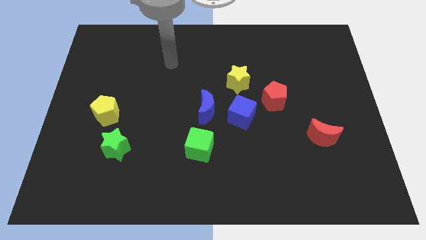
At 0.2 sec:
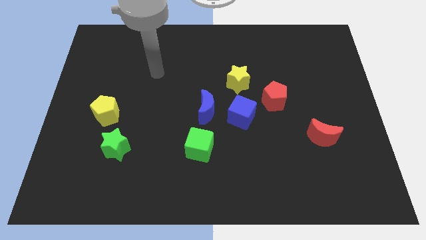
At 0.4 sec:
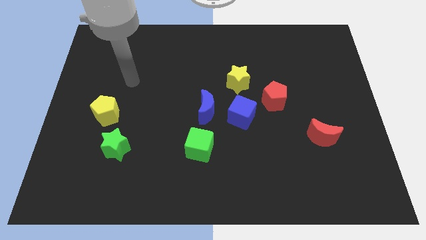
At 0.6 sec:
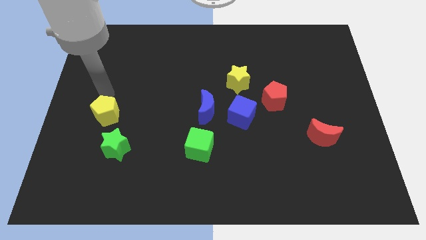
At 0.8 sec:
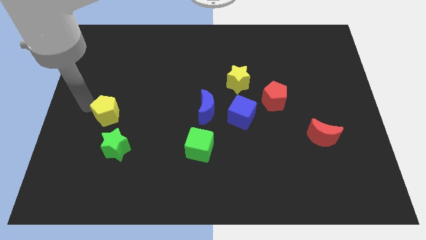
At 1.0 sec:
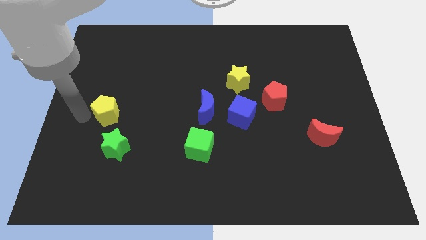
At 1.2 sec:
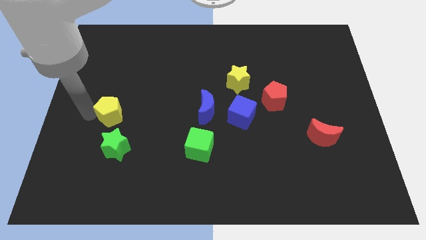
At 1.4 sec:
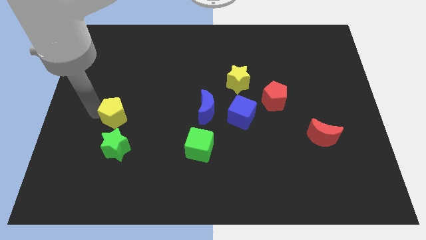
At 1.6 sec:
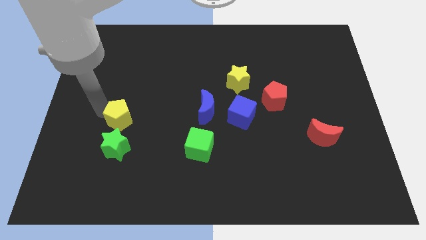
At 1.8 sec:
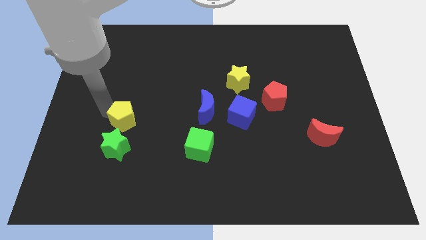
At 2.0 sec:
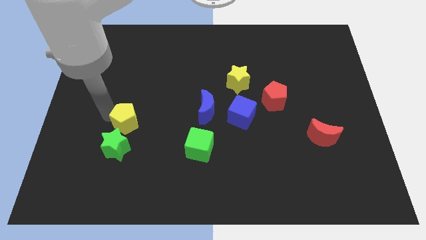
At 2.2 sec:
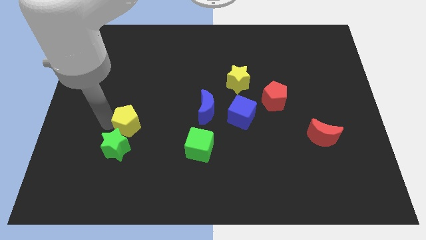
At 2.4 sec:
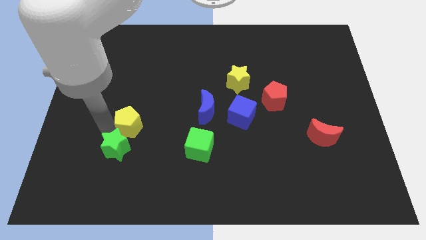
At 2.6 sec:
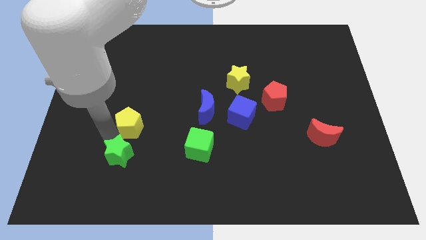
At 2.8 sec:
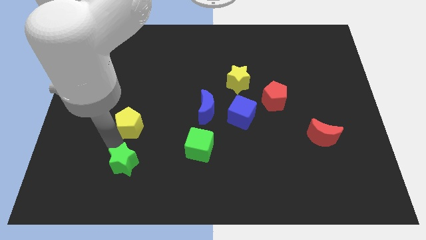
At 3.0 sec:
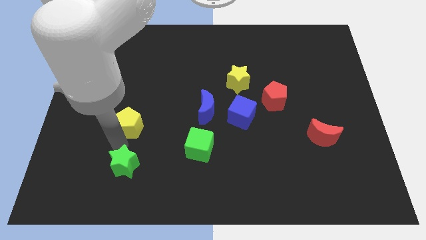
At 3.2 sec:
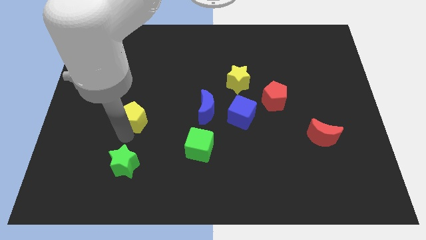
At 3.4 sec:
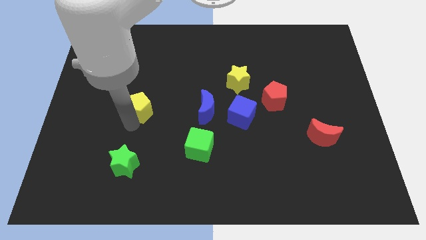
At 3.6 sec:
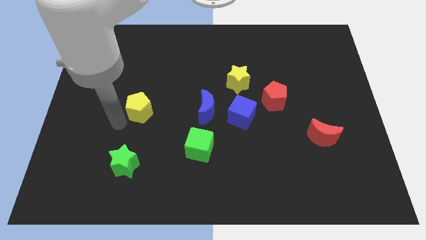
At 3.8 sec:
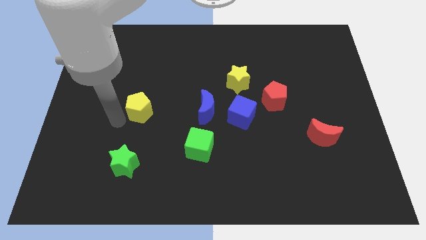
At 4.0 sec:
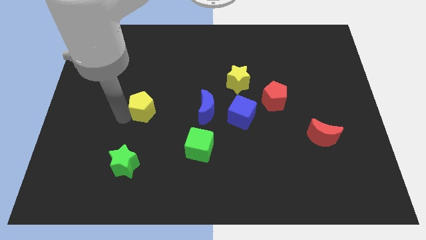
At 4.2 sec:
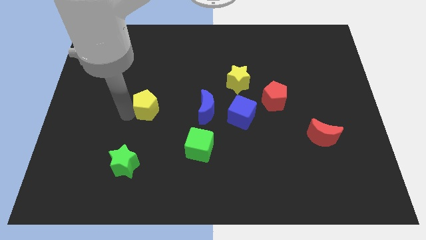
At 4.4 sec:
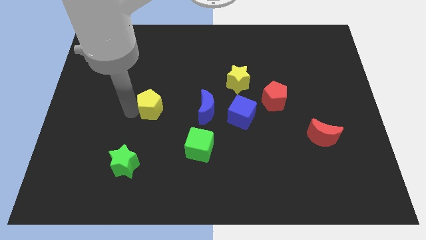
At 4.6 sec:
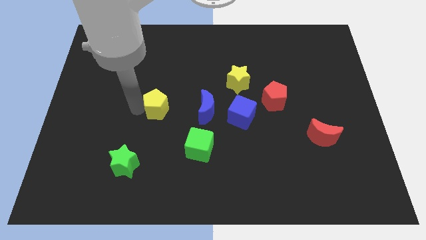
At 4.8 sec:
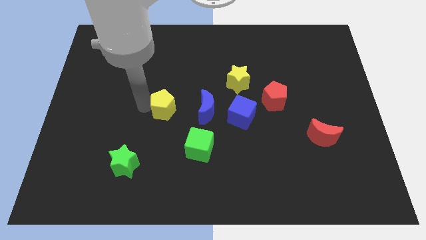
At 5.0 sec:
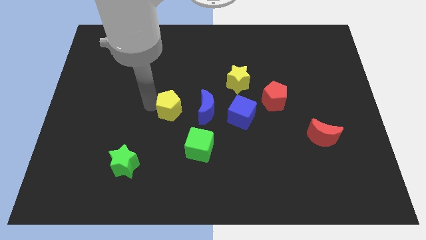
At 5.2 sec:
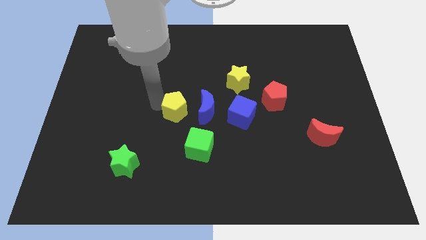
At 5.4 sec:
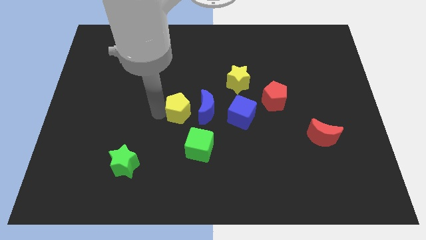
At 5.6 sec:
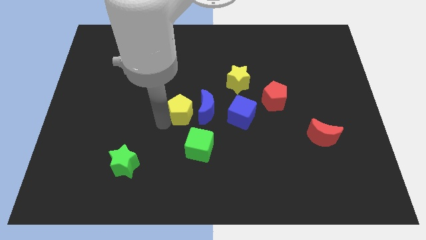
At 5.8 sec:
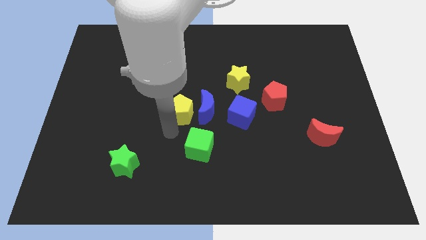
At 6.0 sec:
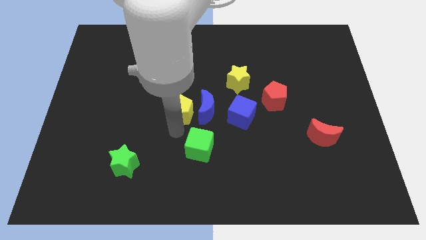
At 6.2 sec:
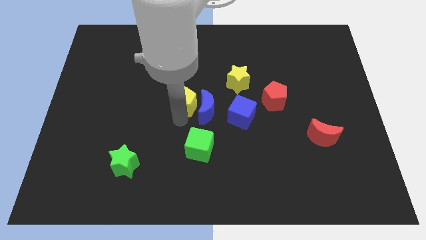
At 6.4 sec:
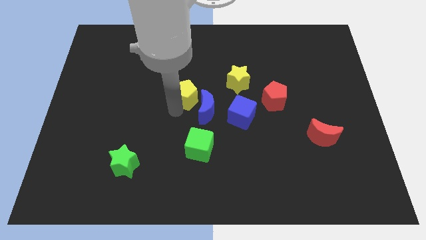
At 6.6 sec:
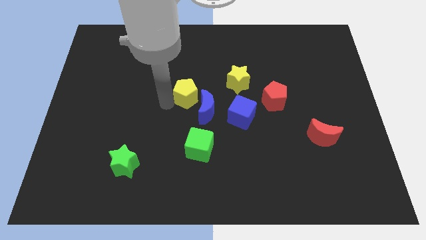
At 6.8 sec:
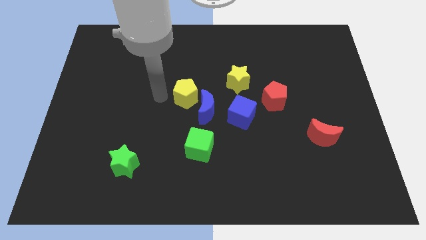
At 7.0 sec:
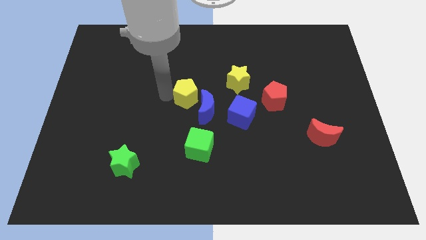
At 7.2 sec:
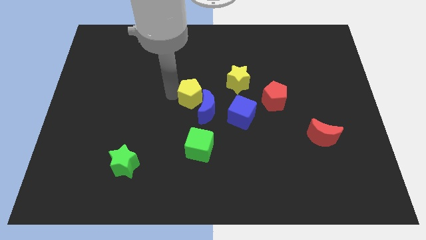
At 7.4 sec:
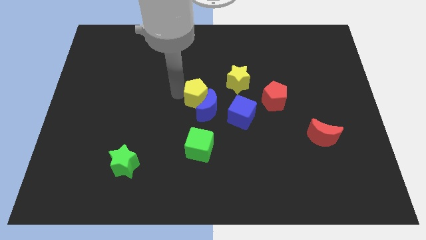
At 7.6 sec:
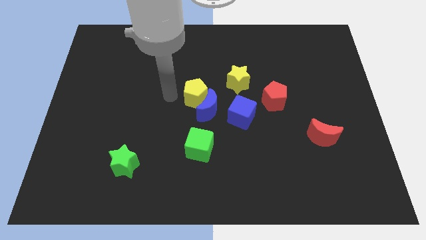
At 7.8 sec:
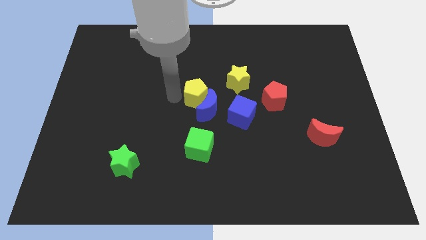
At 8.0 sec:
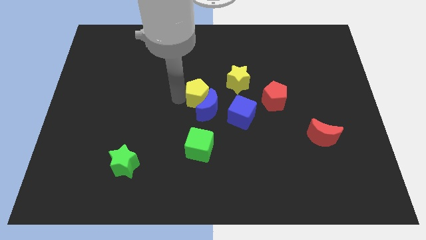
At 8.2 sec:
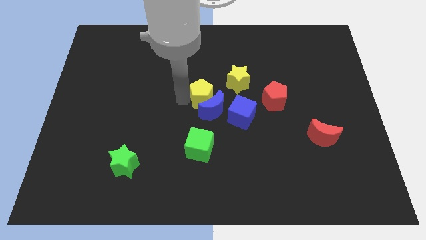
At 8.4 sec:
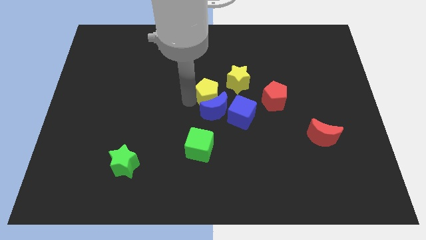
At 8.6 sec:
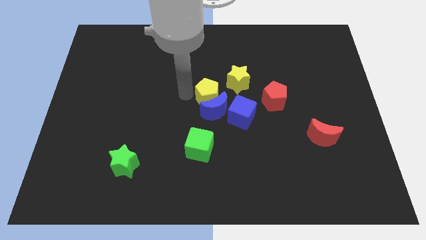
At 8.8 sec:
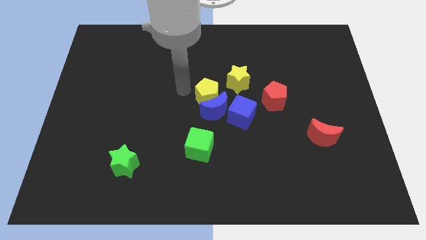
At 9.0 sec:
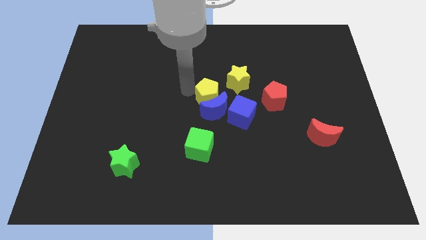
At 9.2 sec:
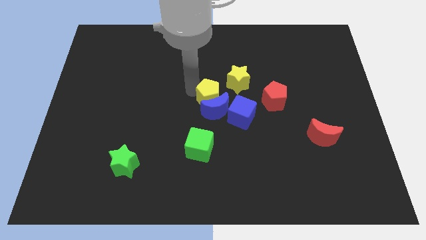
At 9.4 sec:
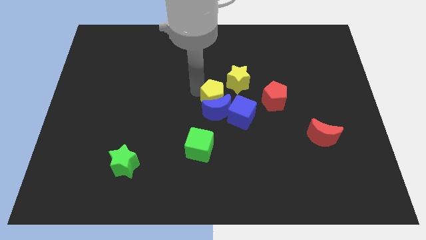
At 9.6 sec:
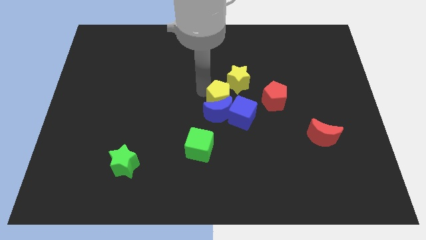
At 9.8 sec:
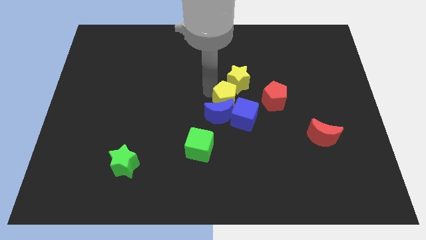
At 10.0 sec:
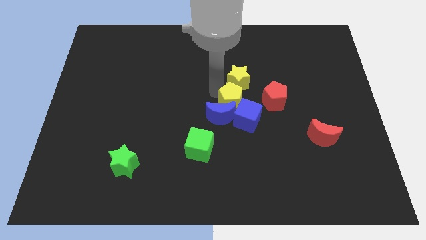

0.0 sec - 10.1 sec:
slide the yellow pentagon to the blue cube

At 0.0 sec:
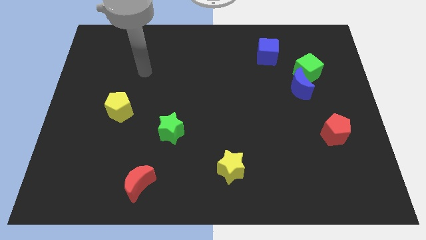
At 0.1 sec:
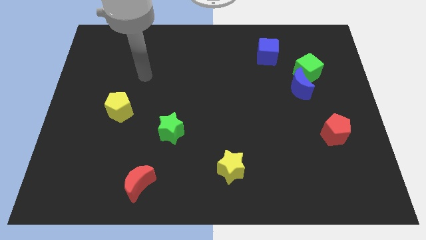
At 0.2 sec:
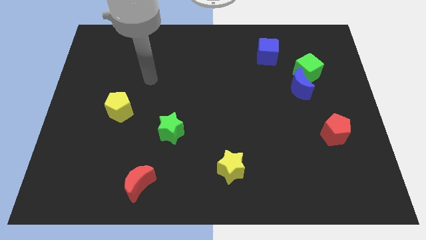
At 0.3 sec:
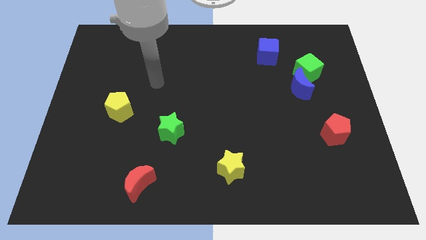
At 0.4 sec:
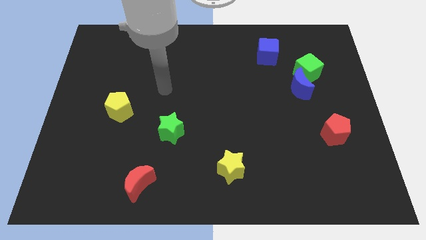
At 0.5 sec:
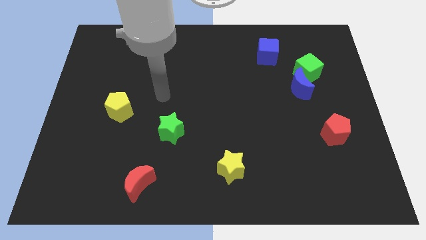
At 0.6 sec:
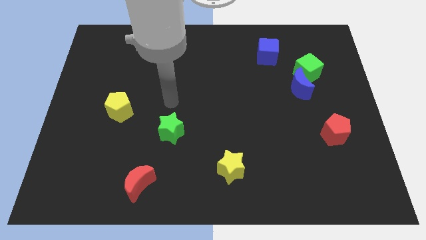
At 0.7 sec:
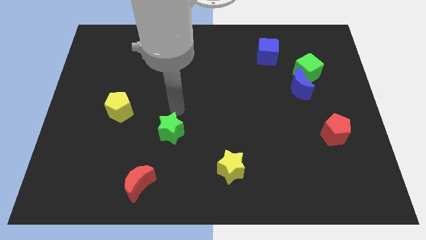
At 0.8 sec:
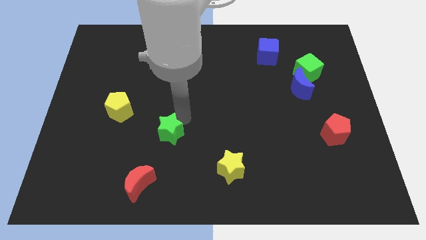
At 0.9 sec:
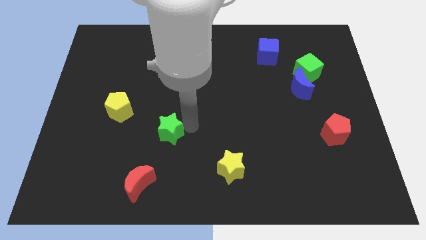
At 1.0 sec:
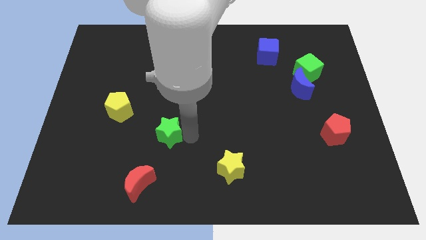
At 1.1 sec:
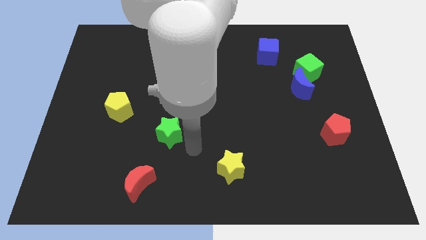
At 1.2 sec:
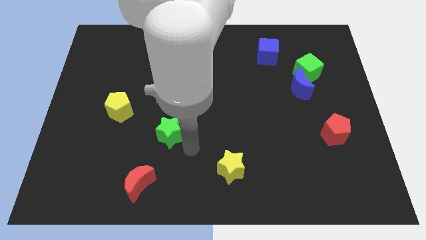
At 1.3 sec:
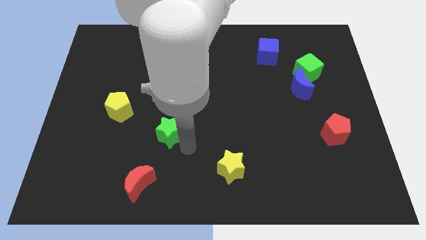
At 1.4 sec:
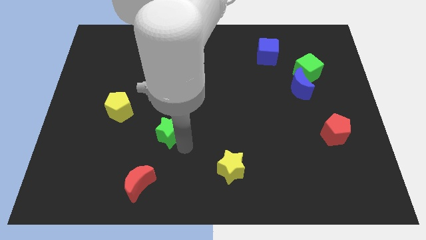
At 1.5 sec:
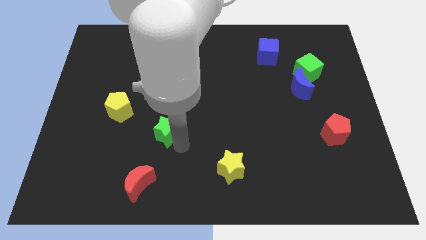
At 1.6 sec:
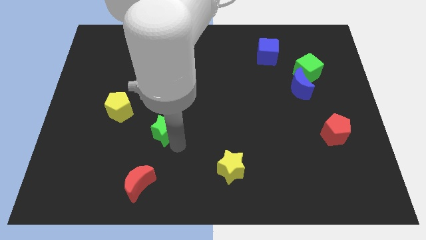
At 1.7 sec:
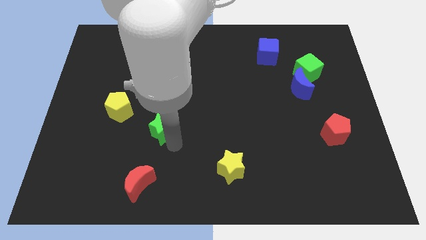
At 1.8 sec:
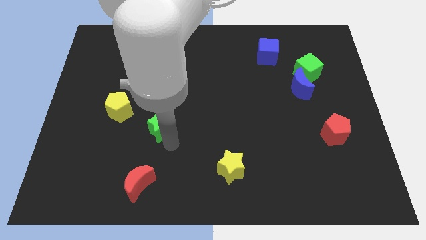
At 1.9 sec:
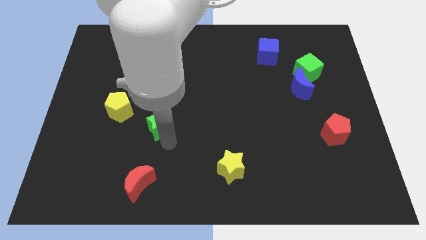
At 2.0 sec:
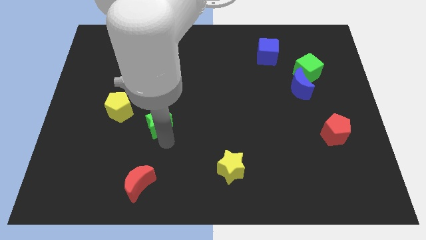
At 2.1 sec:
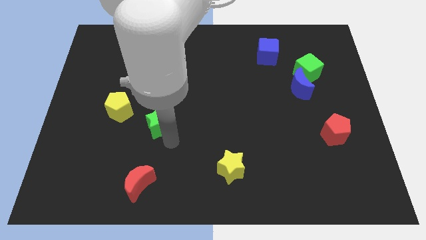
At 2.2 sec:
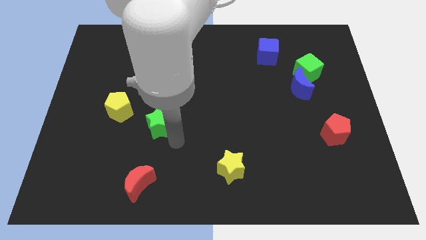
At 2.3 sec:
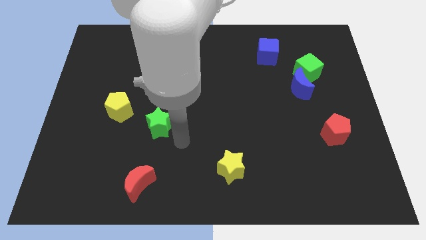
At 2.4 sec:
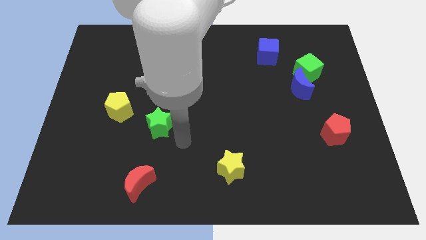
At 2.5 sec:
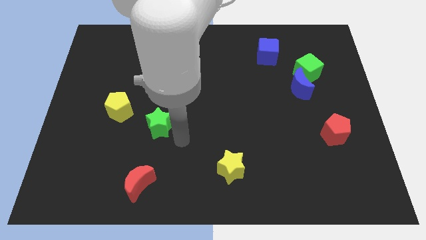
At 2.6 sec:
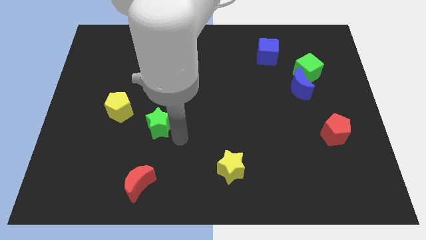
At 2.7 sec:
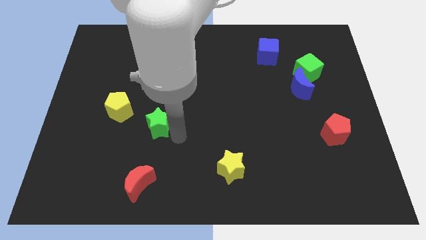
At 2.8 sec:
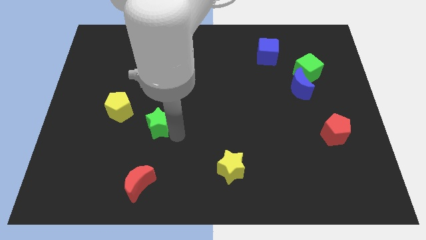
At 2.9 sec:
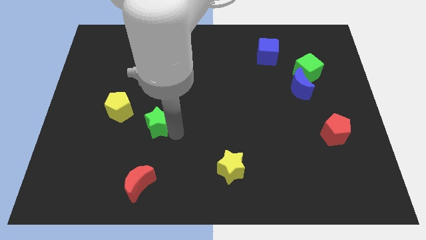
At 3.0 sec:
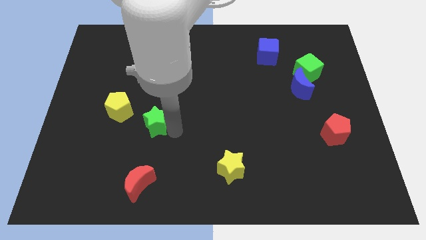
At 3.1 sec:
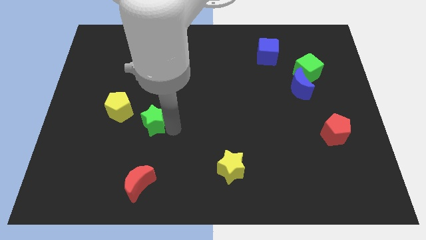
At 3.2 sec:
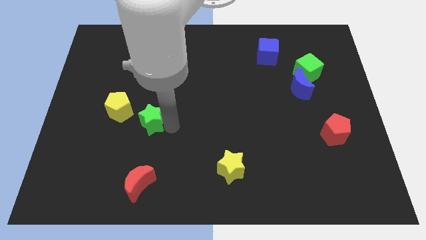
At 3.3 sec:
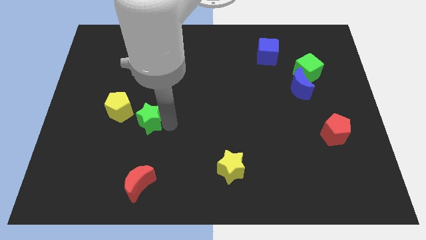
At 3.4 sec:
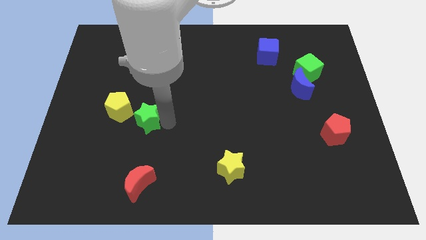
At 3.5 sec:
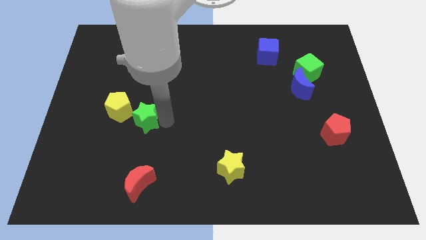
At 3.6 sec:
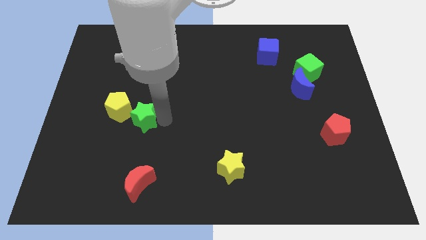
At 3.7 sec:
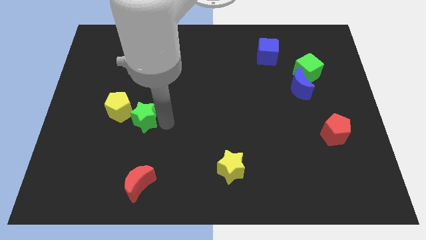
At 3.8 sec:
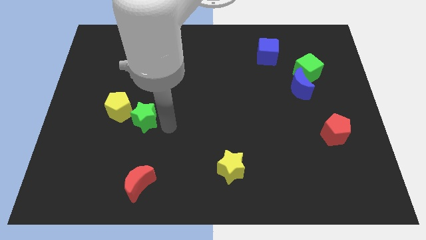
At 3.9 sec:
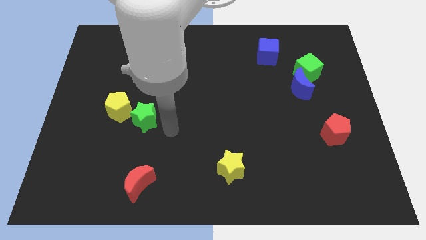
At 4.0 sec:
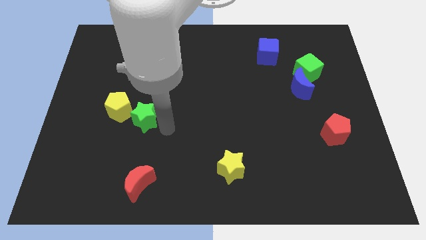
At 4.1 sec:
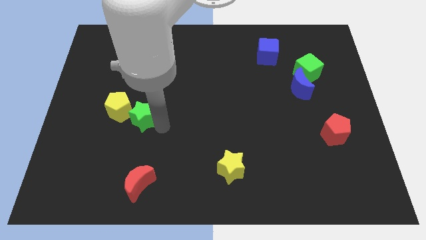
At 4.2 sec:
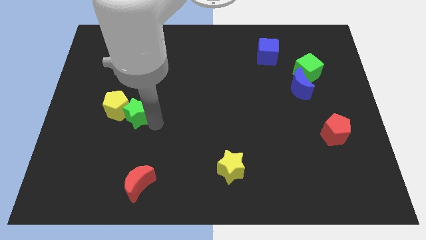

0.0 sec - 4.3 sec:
push the green star to the yellow pentagon
